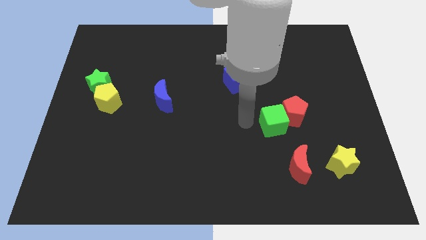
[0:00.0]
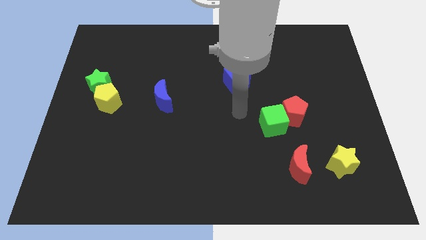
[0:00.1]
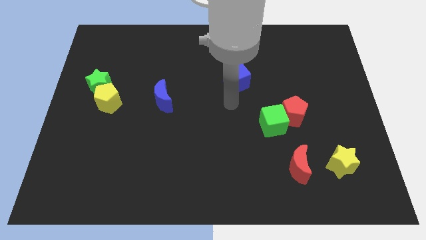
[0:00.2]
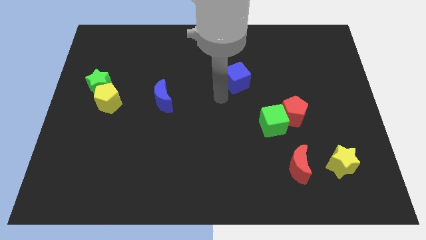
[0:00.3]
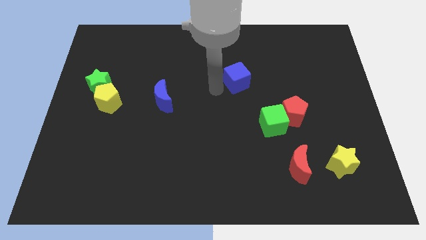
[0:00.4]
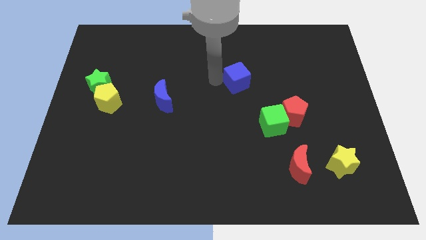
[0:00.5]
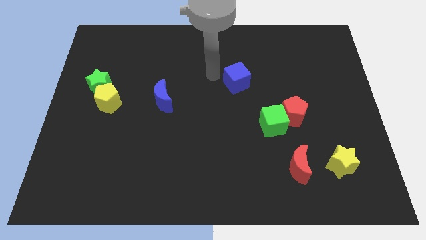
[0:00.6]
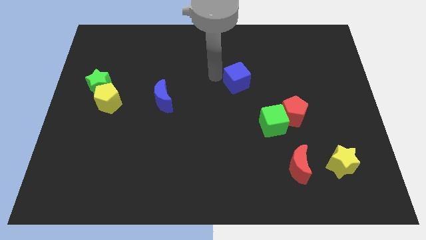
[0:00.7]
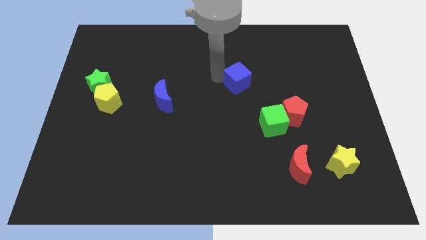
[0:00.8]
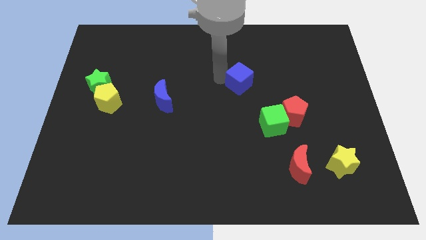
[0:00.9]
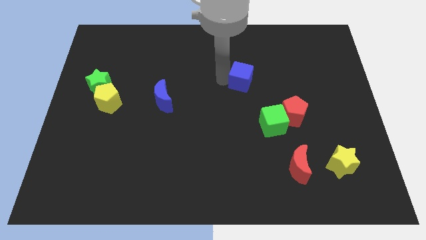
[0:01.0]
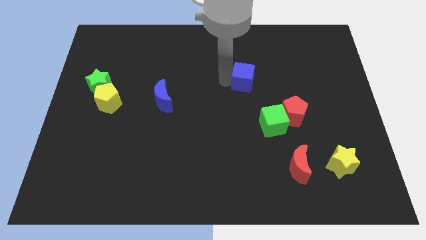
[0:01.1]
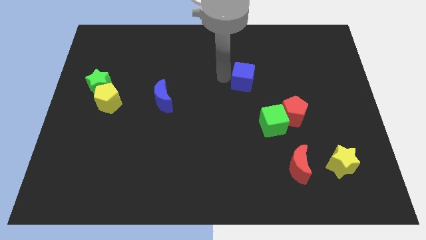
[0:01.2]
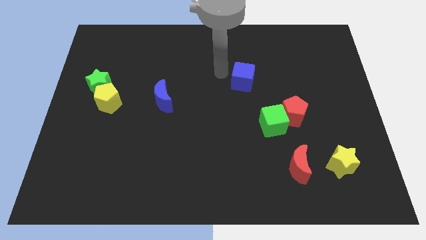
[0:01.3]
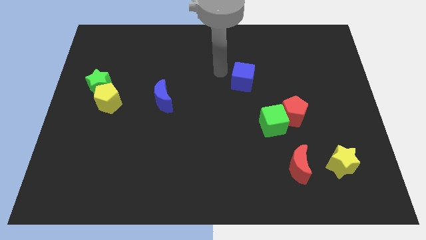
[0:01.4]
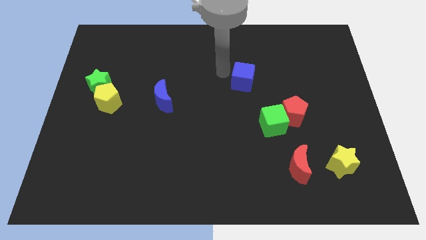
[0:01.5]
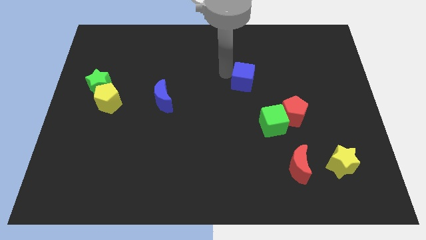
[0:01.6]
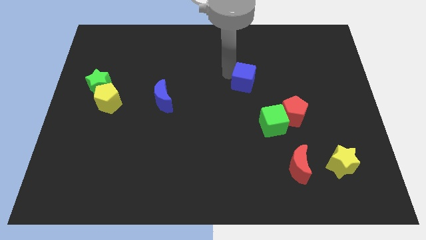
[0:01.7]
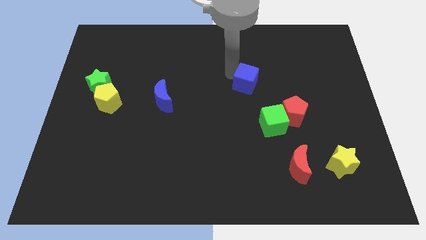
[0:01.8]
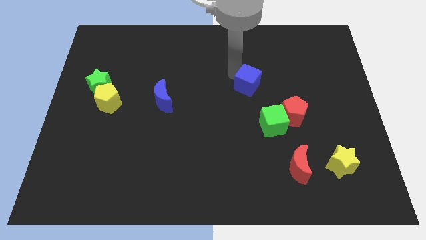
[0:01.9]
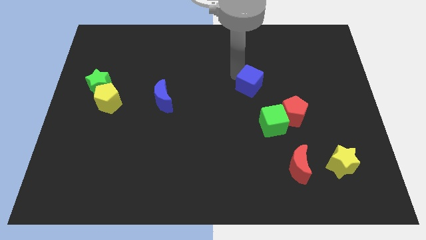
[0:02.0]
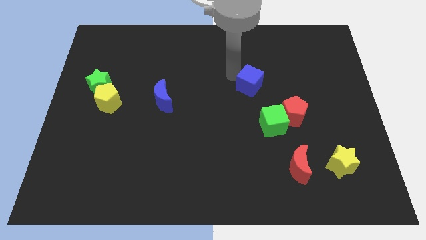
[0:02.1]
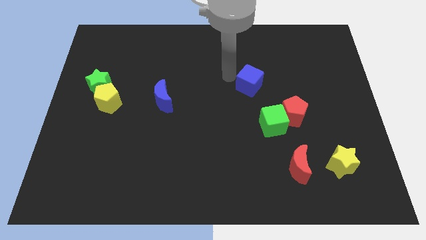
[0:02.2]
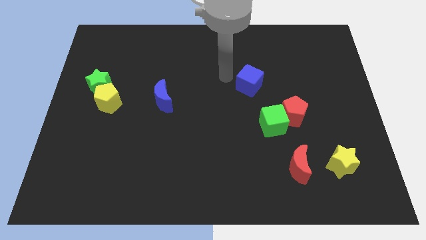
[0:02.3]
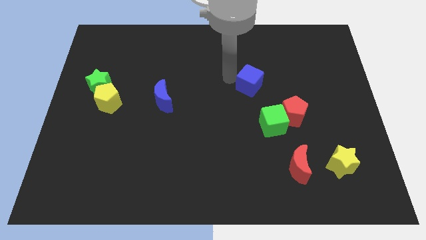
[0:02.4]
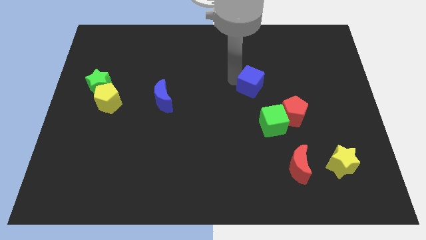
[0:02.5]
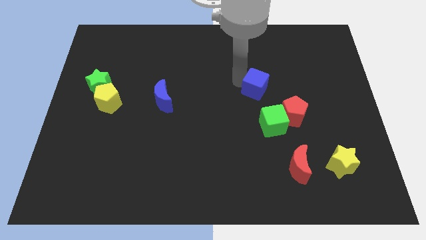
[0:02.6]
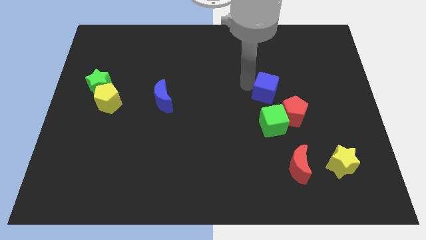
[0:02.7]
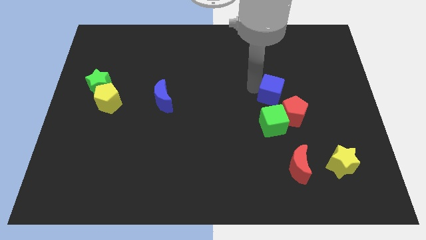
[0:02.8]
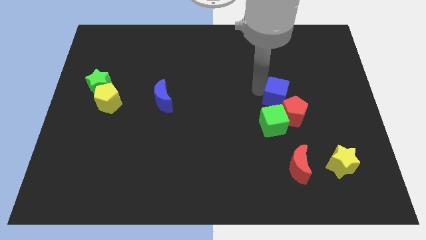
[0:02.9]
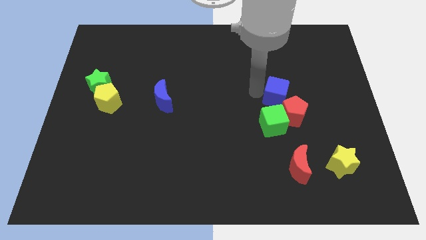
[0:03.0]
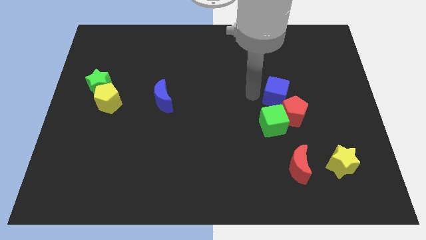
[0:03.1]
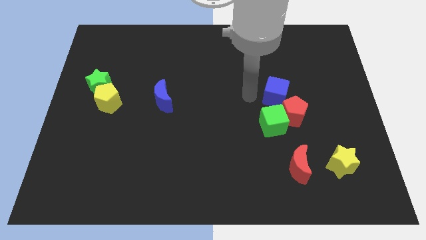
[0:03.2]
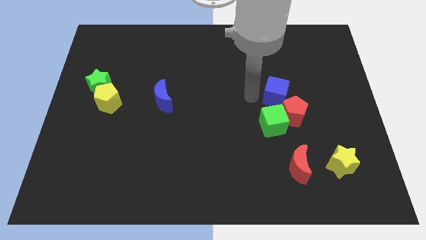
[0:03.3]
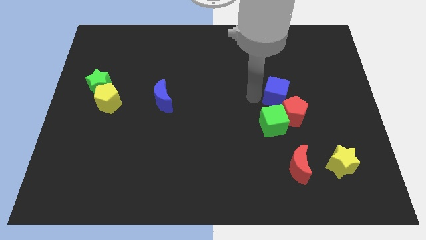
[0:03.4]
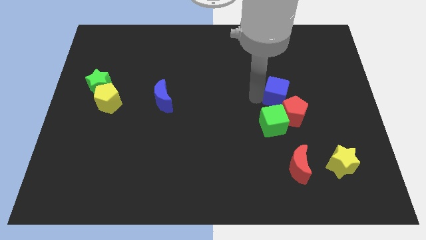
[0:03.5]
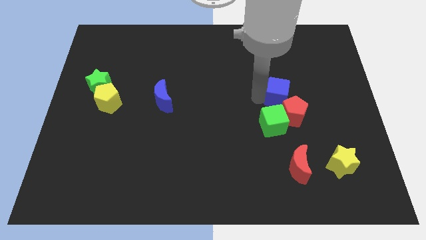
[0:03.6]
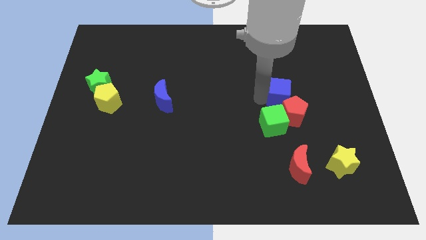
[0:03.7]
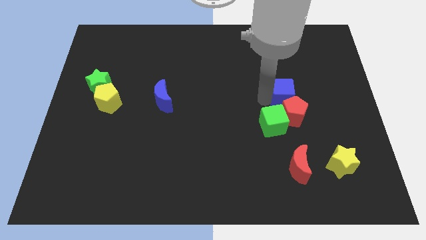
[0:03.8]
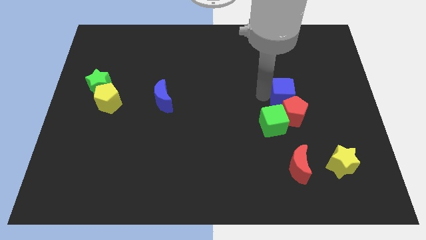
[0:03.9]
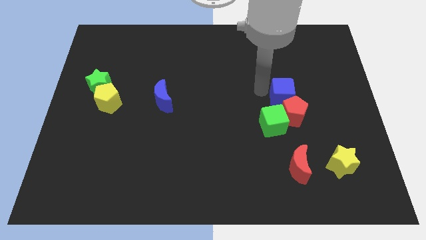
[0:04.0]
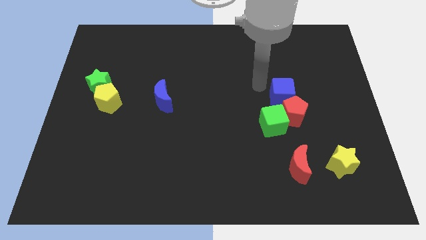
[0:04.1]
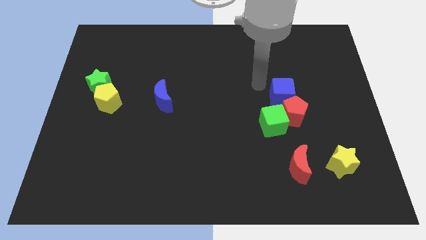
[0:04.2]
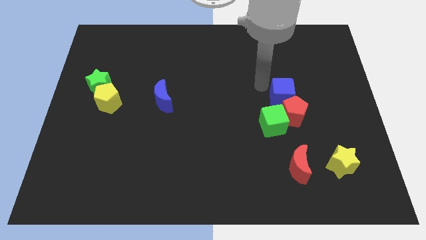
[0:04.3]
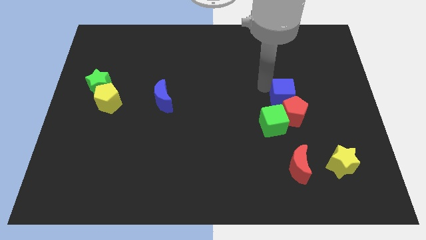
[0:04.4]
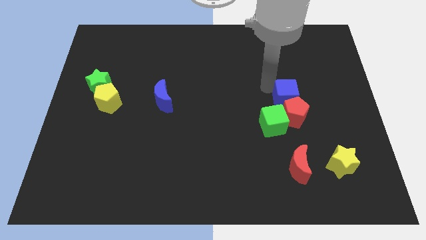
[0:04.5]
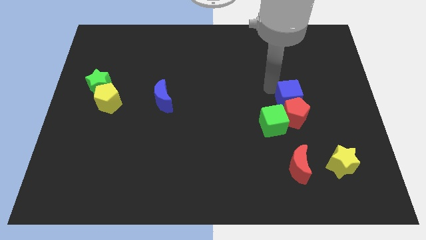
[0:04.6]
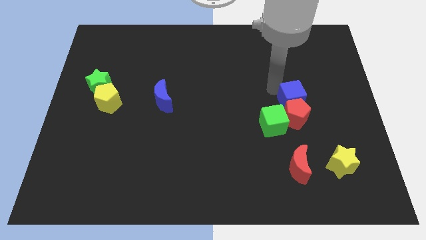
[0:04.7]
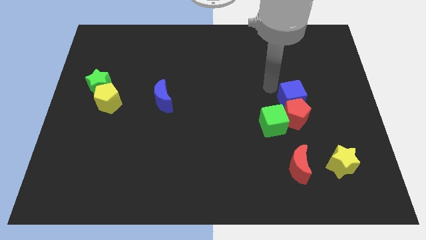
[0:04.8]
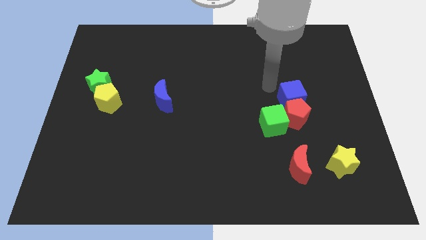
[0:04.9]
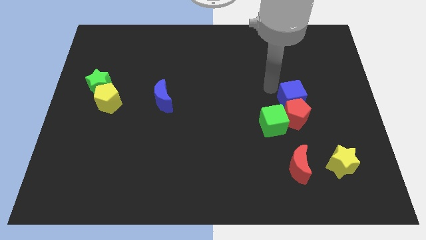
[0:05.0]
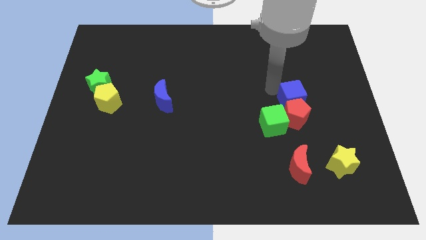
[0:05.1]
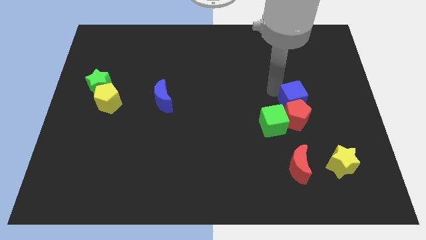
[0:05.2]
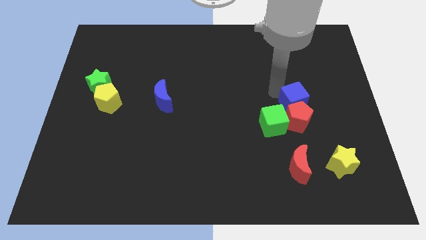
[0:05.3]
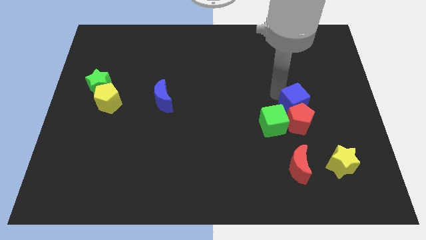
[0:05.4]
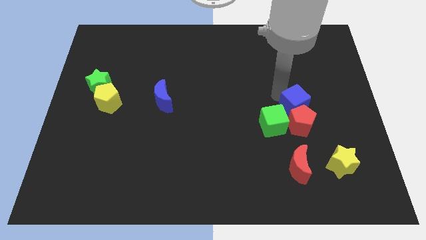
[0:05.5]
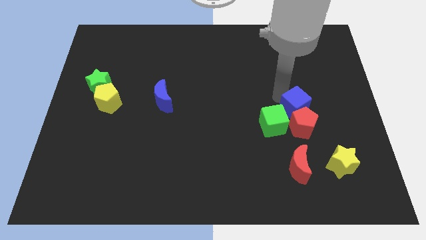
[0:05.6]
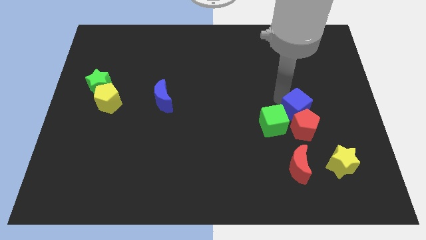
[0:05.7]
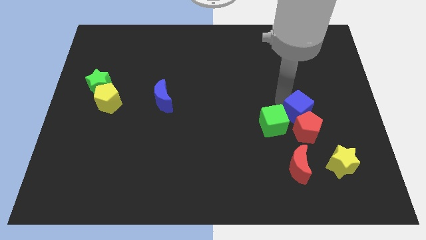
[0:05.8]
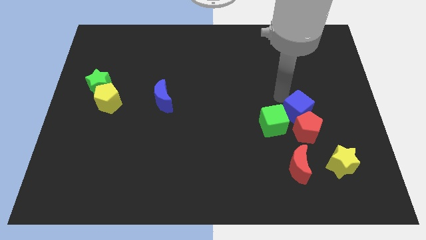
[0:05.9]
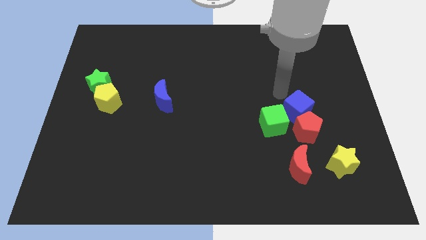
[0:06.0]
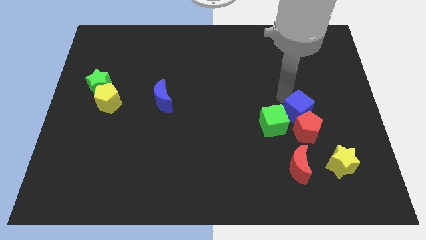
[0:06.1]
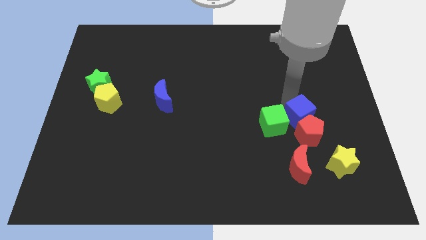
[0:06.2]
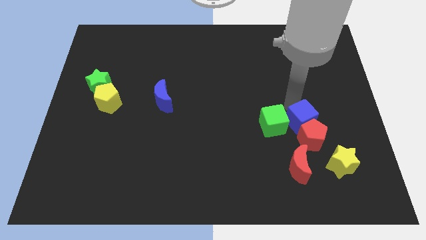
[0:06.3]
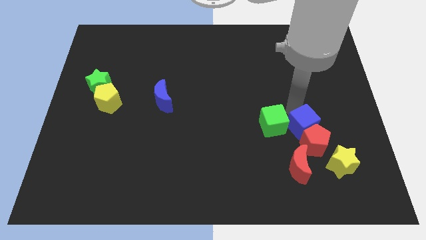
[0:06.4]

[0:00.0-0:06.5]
put the blue cube to the top left side of the yellow star

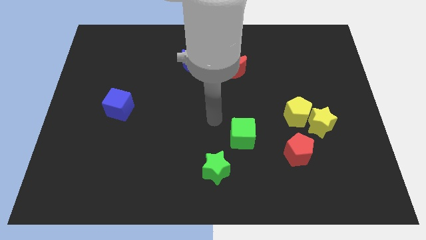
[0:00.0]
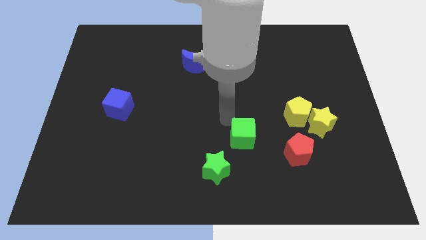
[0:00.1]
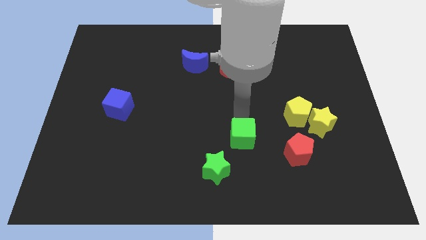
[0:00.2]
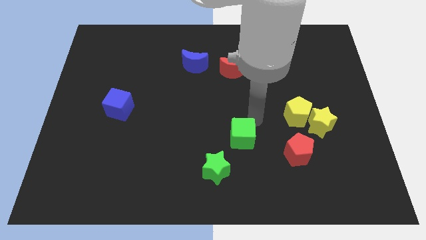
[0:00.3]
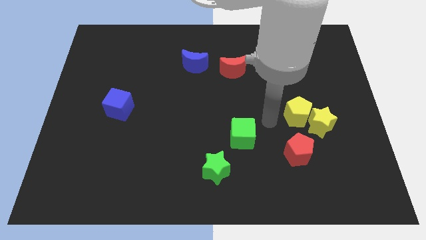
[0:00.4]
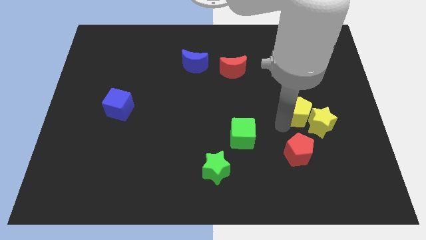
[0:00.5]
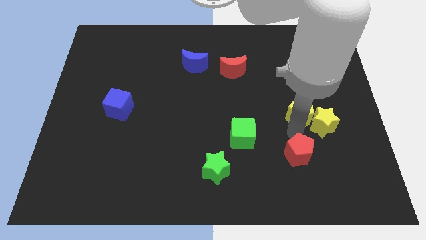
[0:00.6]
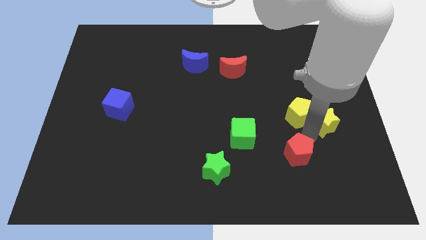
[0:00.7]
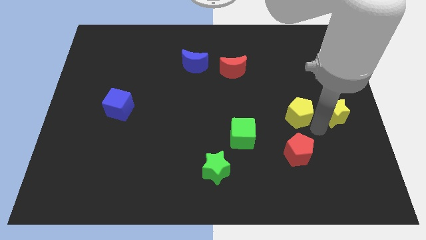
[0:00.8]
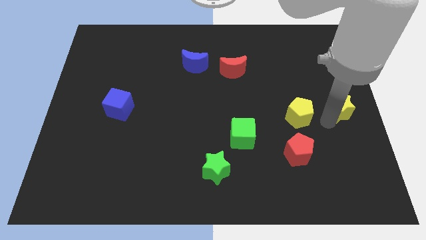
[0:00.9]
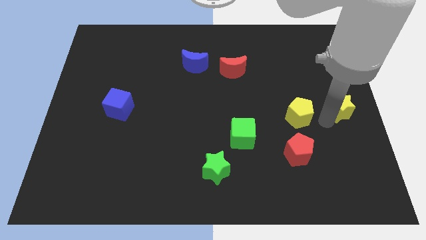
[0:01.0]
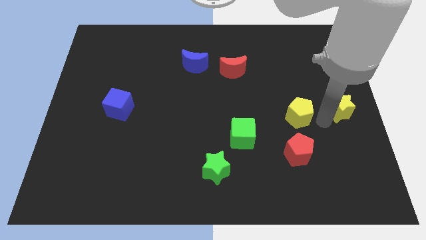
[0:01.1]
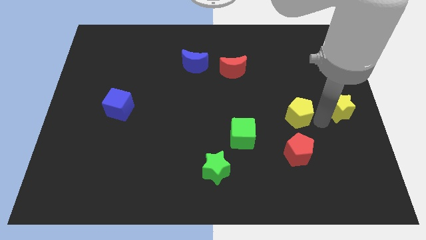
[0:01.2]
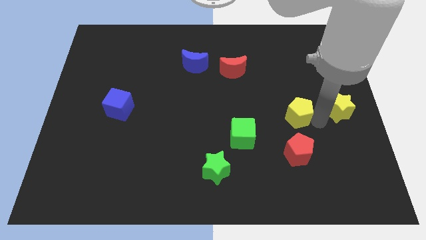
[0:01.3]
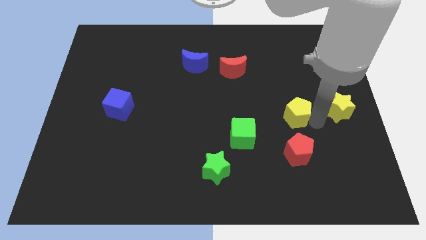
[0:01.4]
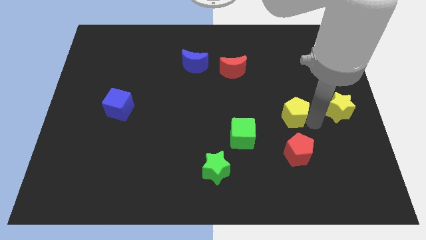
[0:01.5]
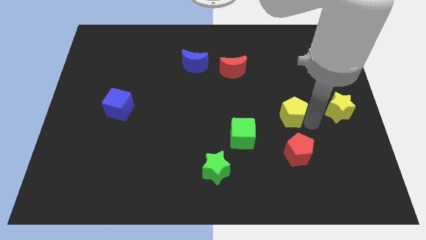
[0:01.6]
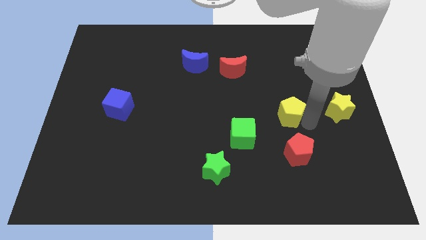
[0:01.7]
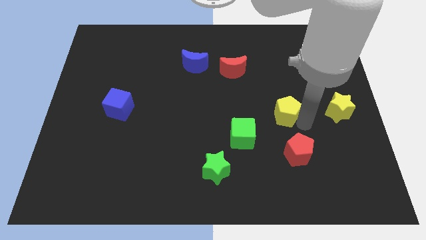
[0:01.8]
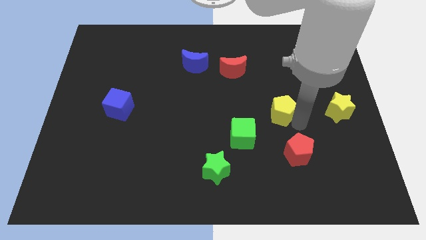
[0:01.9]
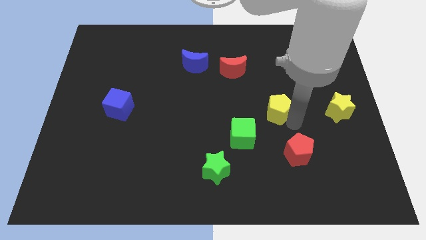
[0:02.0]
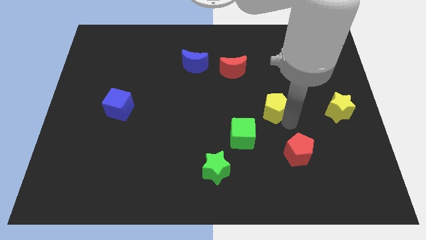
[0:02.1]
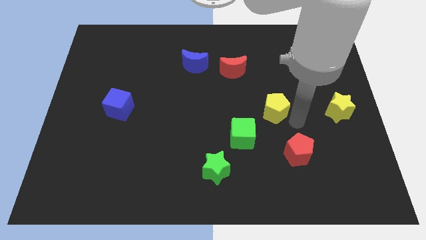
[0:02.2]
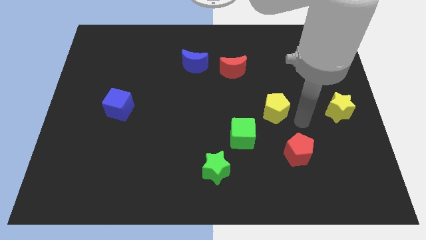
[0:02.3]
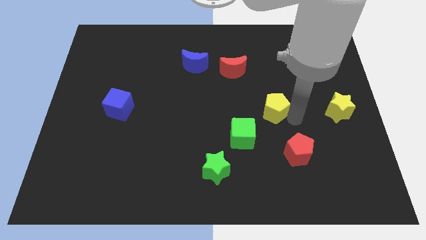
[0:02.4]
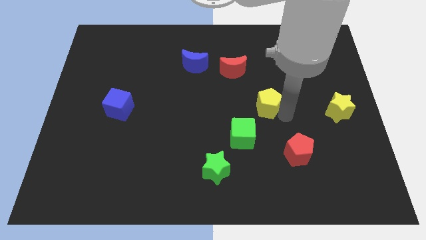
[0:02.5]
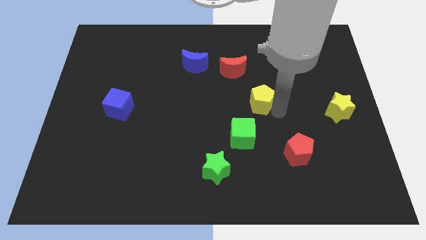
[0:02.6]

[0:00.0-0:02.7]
move the yellow pentagon to the top side of the green cube
